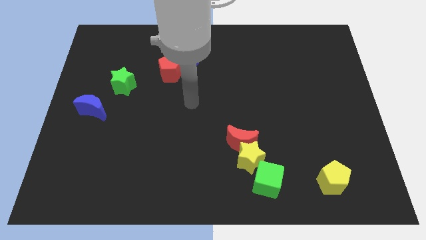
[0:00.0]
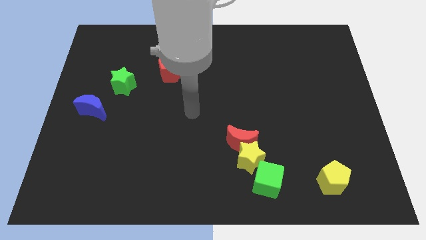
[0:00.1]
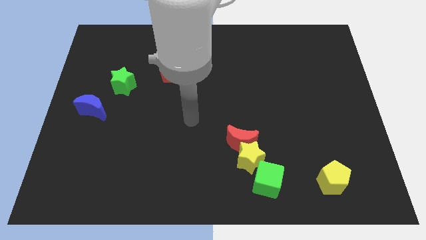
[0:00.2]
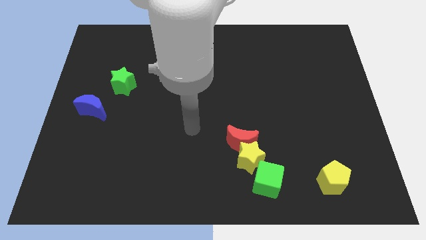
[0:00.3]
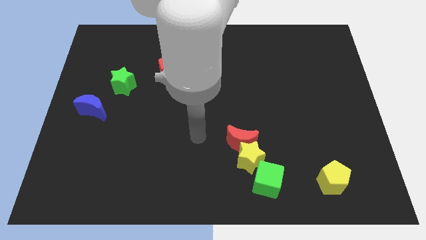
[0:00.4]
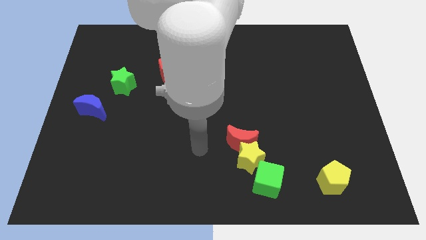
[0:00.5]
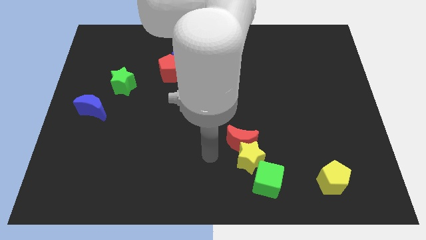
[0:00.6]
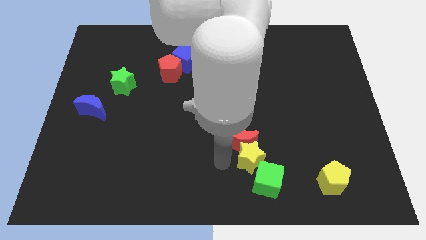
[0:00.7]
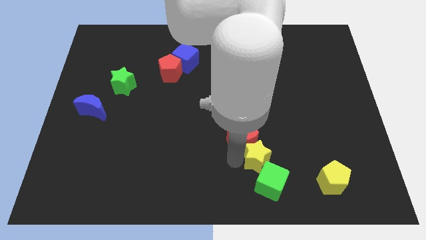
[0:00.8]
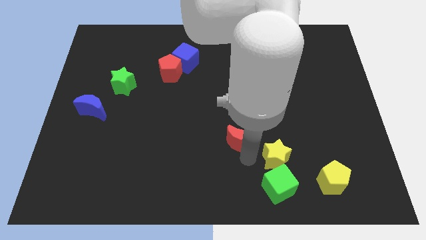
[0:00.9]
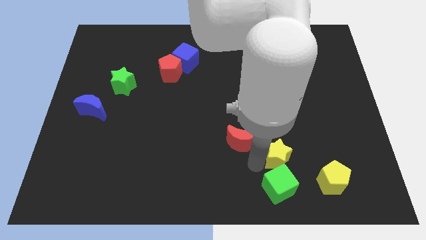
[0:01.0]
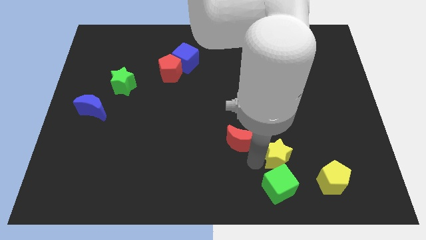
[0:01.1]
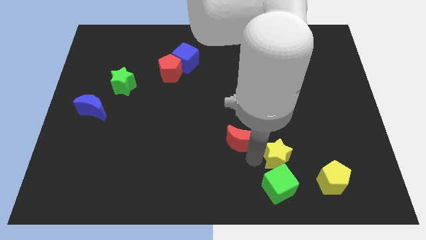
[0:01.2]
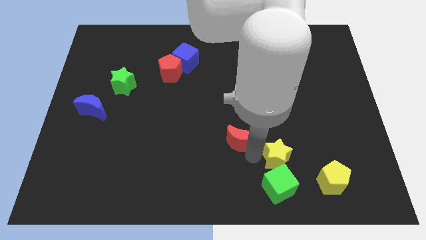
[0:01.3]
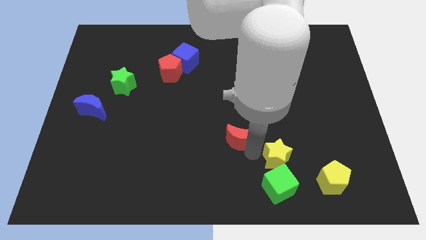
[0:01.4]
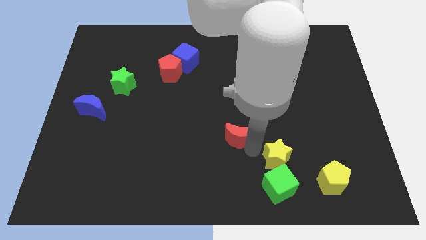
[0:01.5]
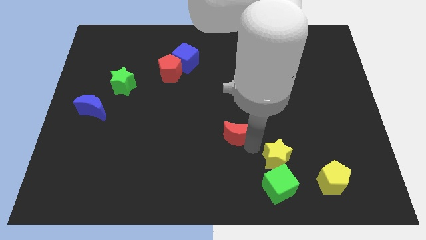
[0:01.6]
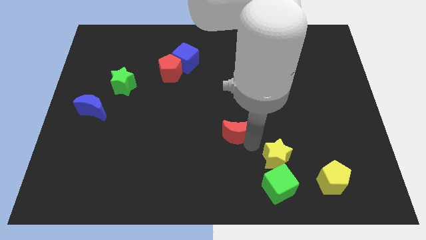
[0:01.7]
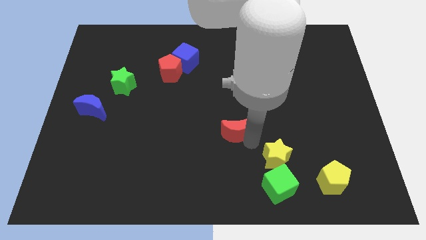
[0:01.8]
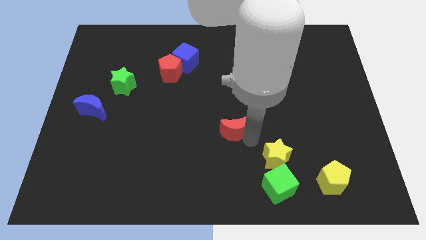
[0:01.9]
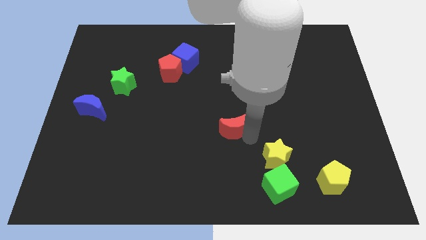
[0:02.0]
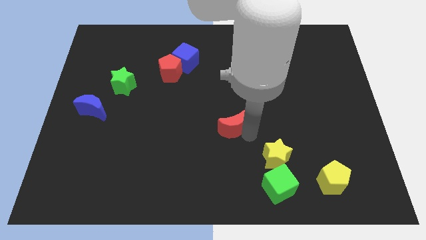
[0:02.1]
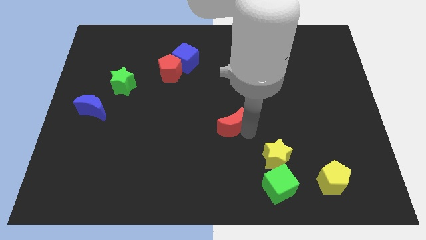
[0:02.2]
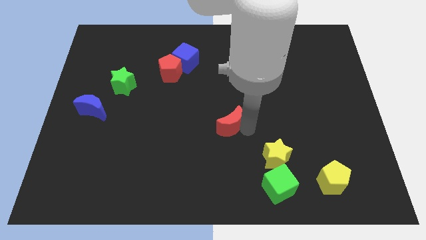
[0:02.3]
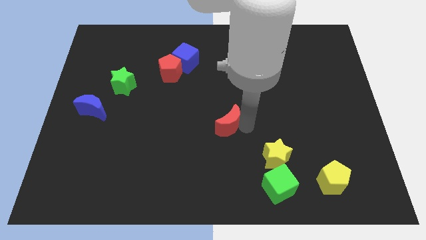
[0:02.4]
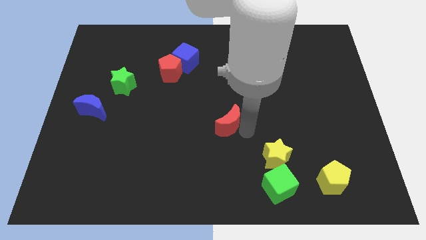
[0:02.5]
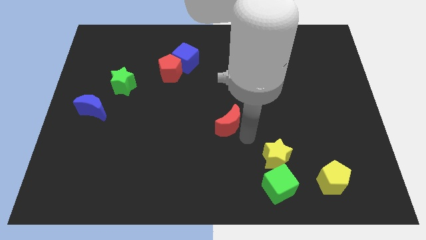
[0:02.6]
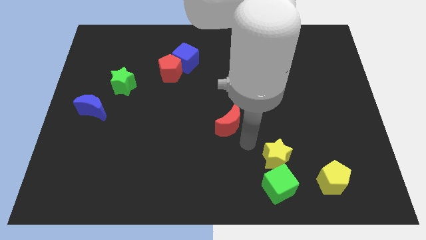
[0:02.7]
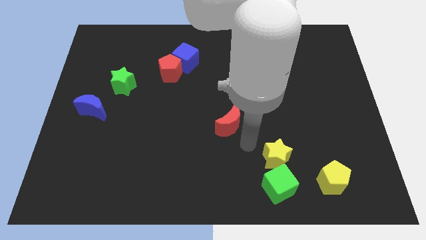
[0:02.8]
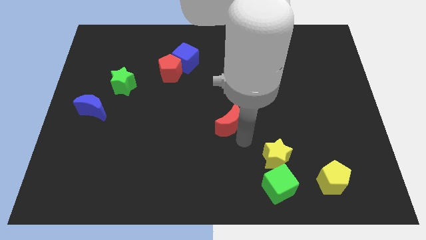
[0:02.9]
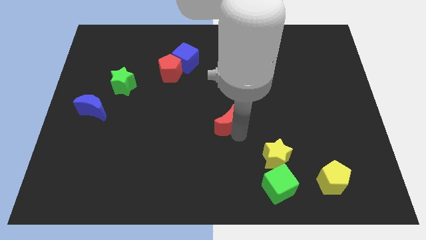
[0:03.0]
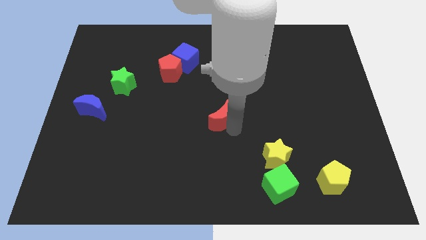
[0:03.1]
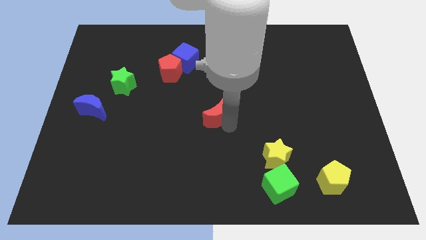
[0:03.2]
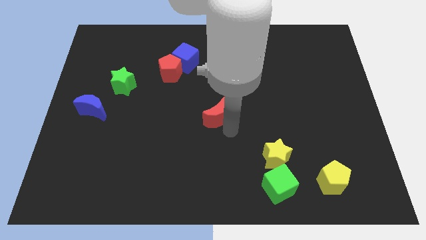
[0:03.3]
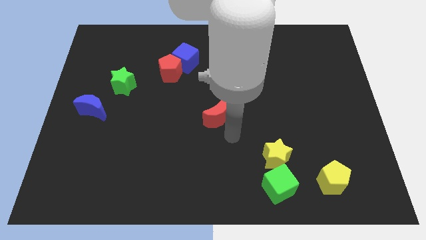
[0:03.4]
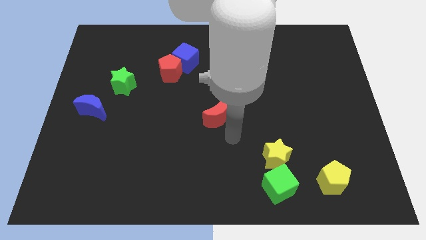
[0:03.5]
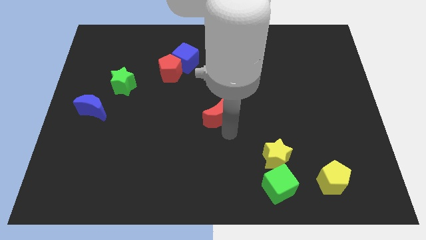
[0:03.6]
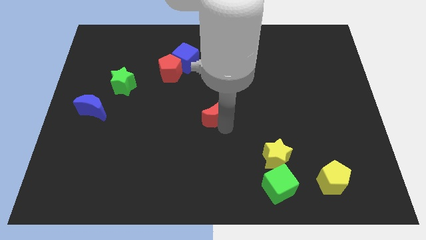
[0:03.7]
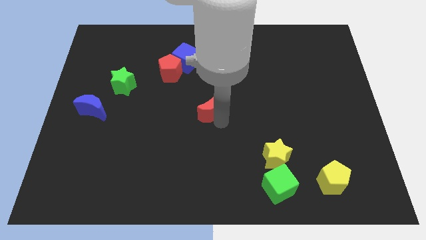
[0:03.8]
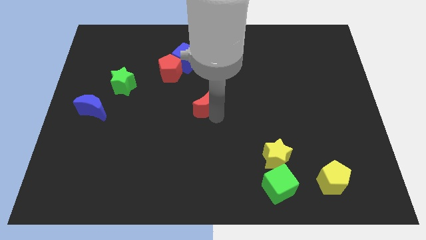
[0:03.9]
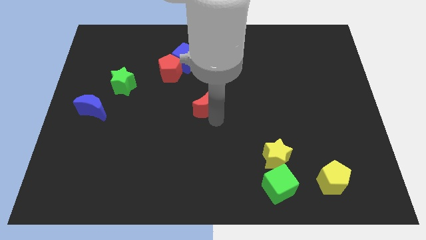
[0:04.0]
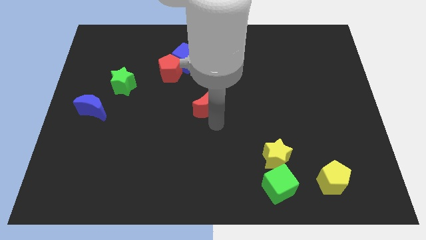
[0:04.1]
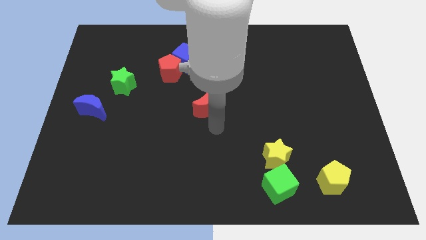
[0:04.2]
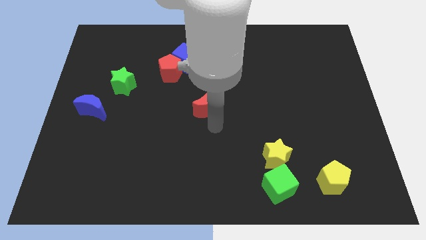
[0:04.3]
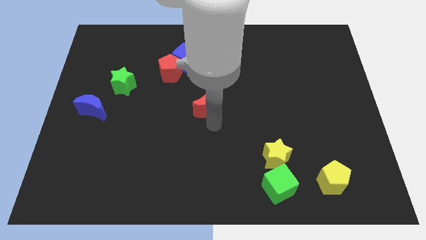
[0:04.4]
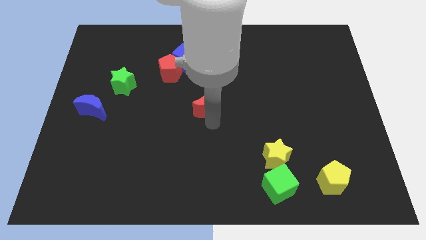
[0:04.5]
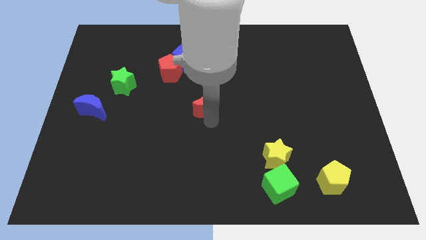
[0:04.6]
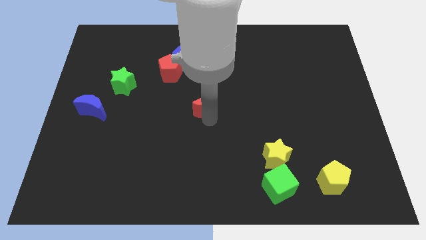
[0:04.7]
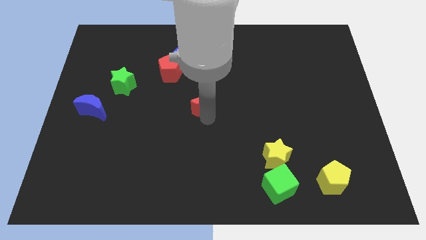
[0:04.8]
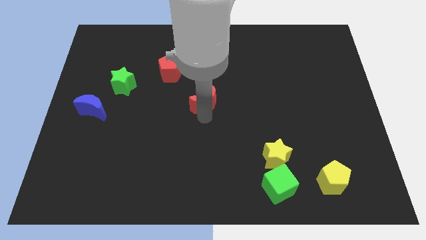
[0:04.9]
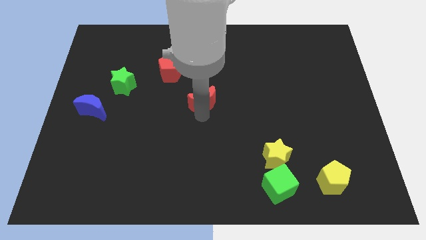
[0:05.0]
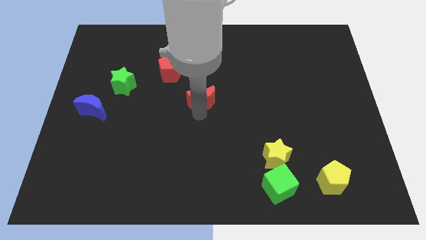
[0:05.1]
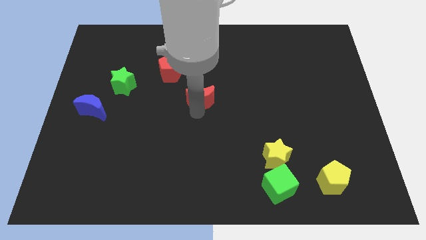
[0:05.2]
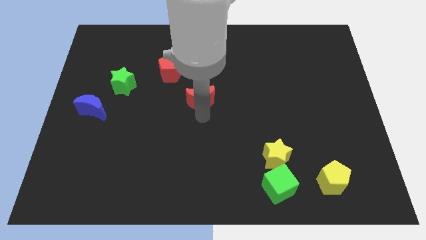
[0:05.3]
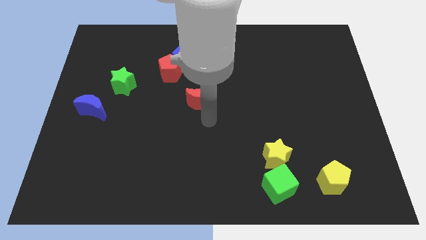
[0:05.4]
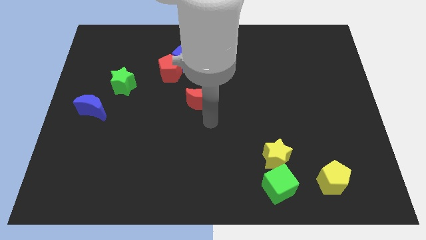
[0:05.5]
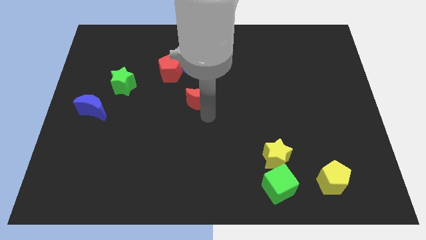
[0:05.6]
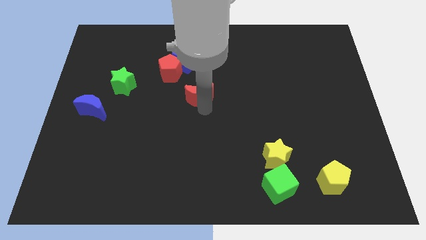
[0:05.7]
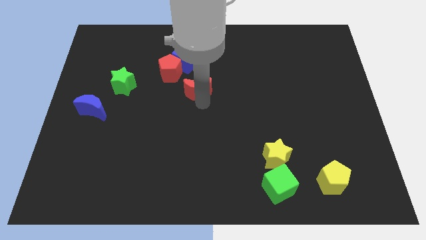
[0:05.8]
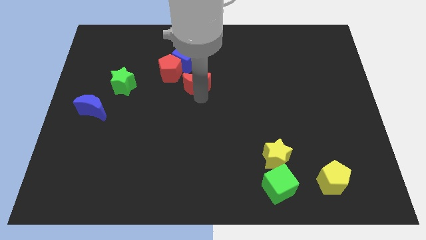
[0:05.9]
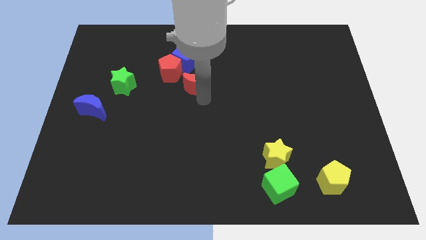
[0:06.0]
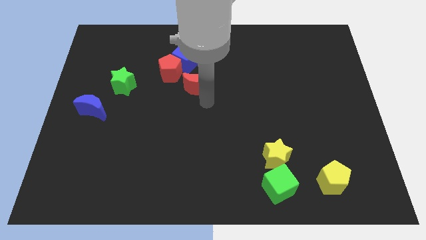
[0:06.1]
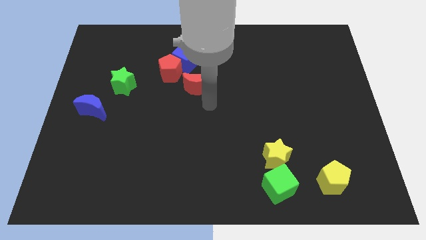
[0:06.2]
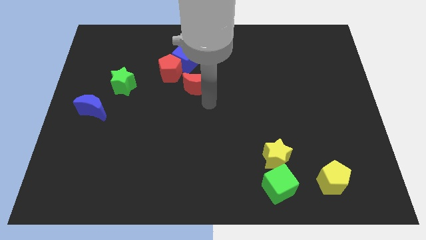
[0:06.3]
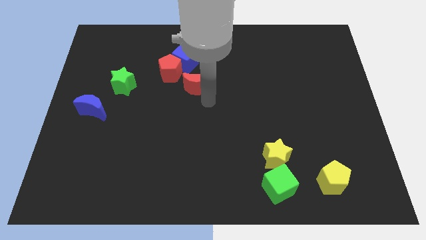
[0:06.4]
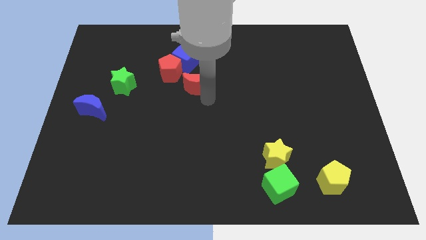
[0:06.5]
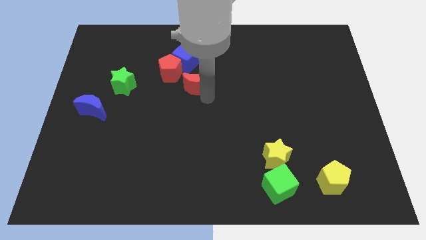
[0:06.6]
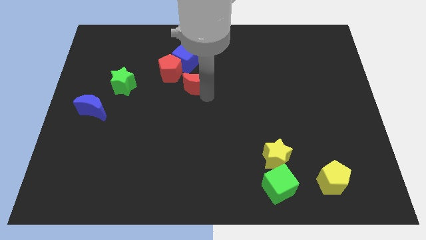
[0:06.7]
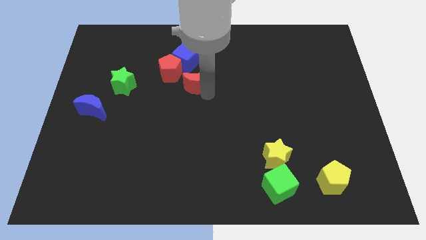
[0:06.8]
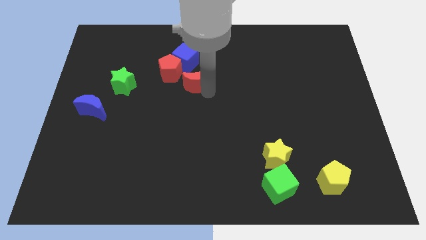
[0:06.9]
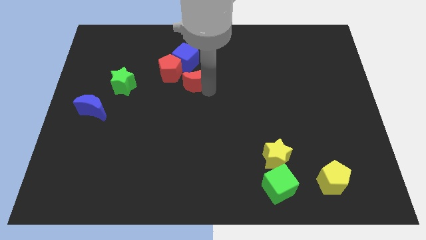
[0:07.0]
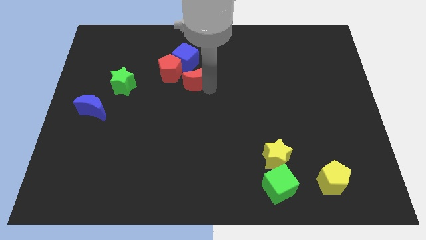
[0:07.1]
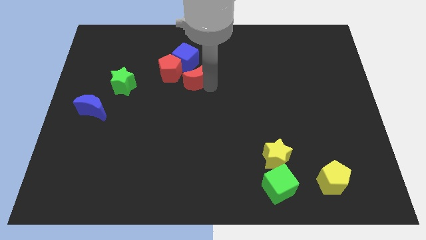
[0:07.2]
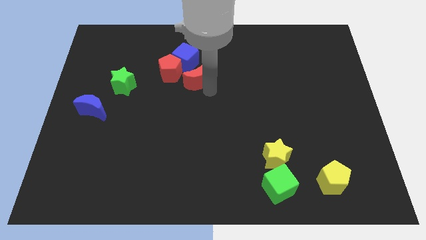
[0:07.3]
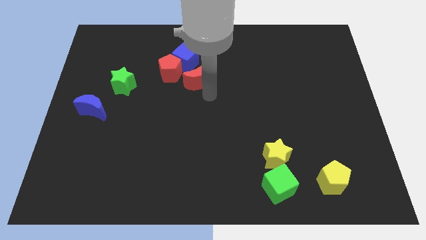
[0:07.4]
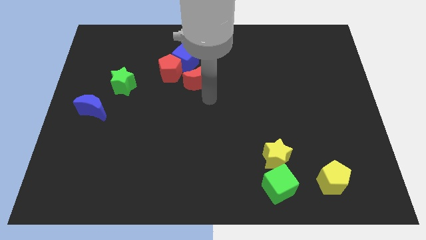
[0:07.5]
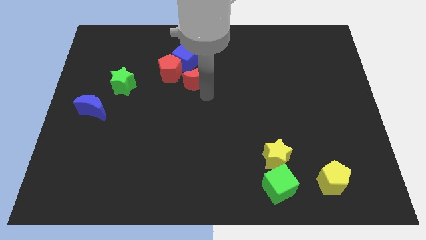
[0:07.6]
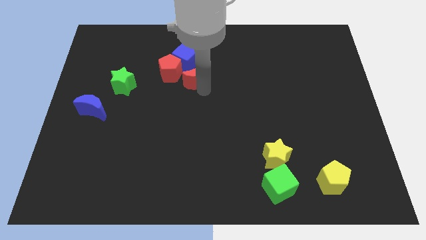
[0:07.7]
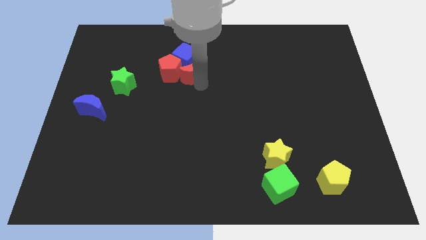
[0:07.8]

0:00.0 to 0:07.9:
slide the red moon close to the blue cube
